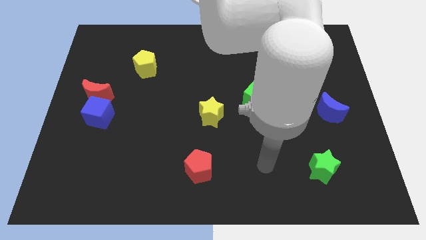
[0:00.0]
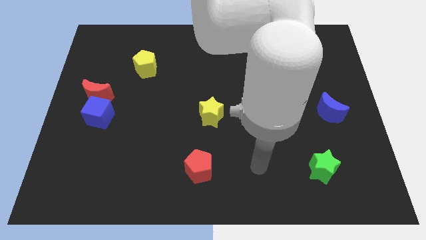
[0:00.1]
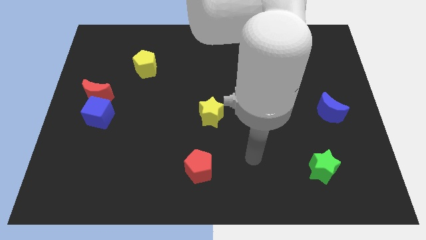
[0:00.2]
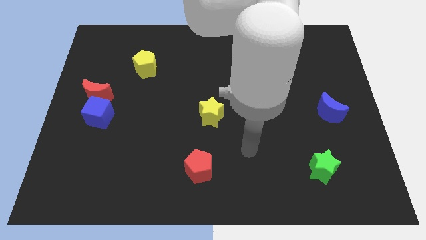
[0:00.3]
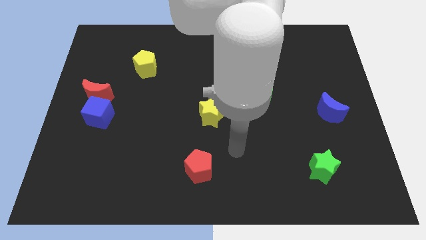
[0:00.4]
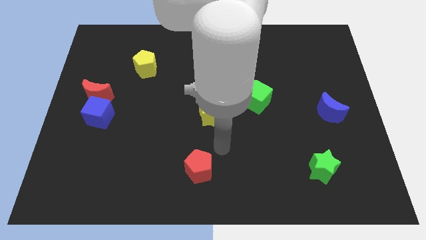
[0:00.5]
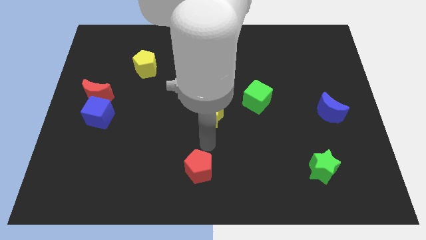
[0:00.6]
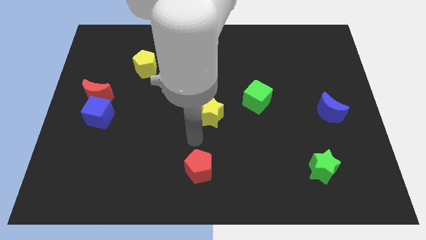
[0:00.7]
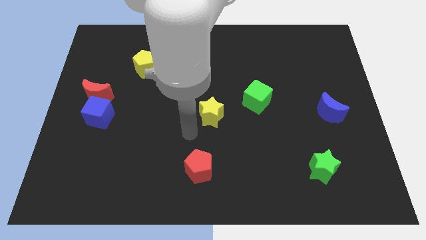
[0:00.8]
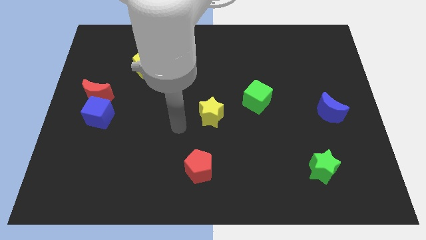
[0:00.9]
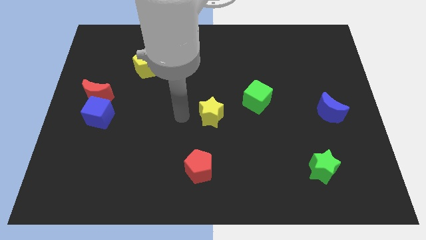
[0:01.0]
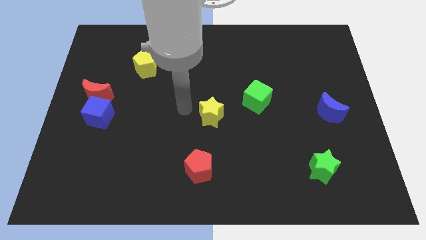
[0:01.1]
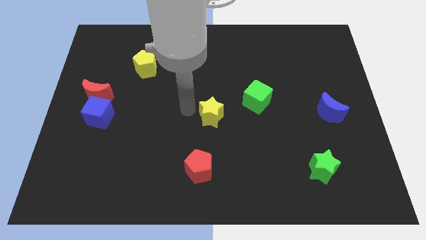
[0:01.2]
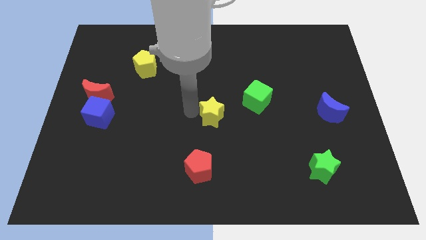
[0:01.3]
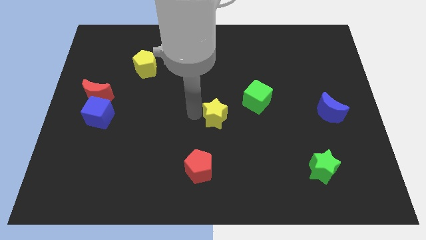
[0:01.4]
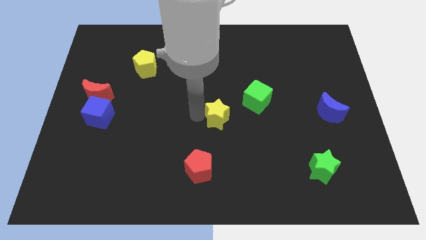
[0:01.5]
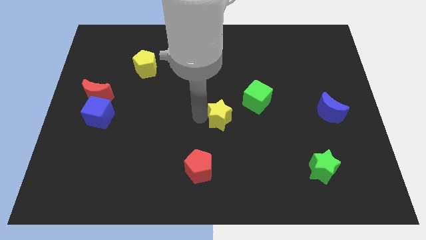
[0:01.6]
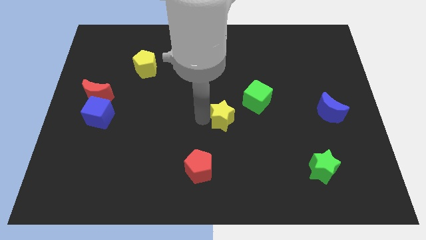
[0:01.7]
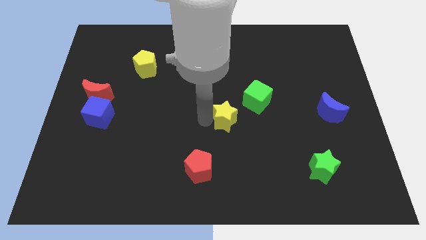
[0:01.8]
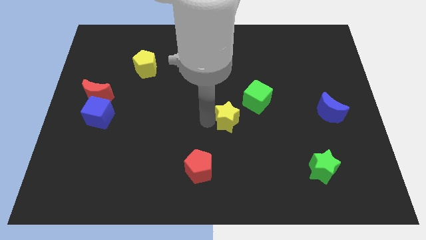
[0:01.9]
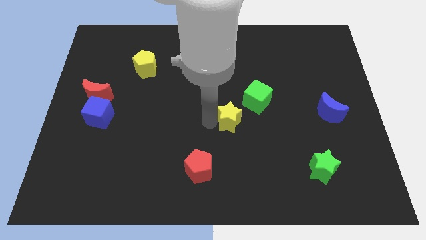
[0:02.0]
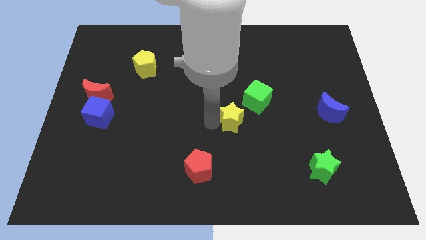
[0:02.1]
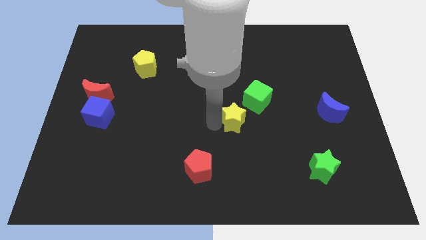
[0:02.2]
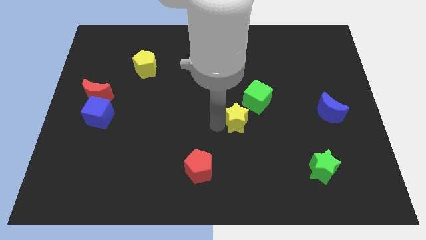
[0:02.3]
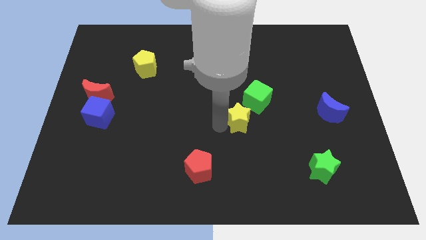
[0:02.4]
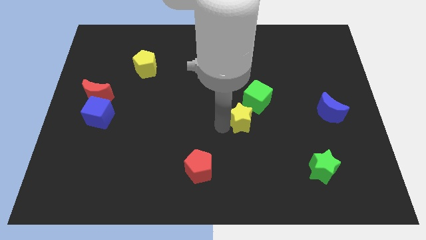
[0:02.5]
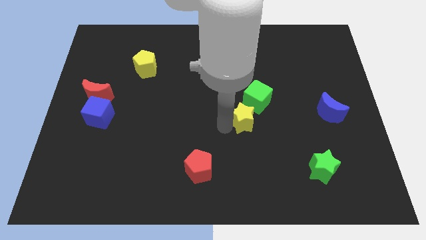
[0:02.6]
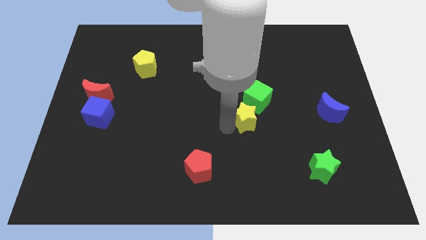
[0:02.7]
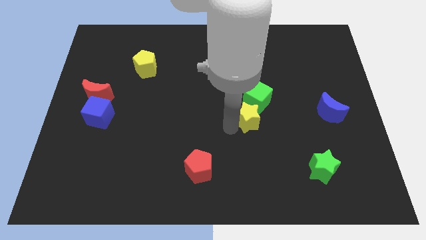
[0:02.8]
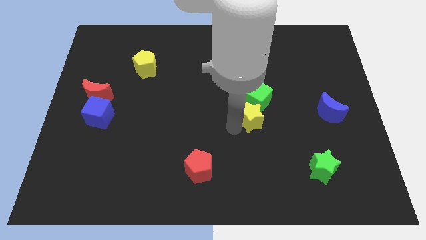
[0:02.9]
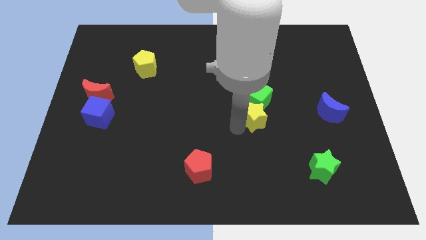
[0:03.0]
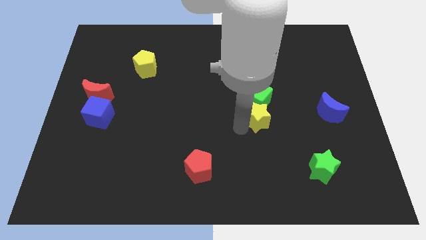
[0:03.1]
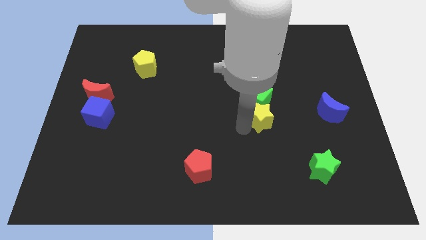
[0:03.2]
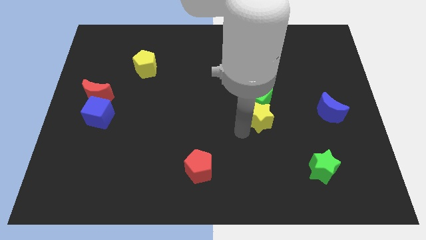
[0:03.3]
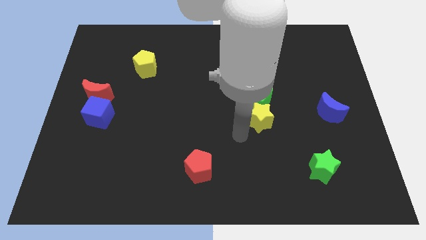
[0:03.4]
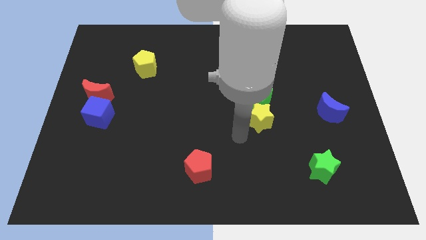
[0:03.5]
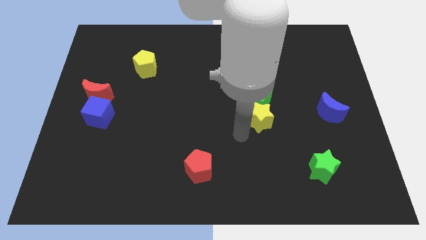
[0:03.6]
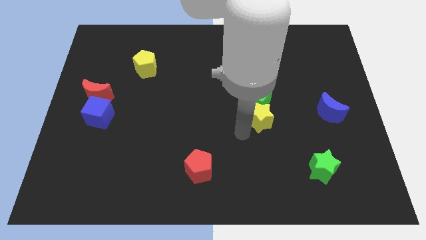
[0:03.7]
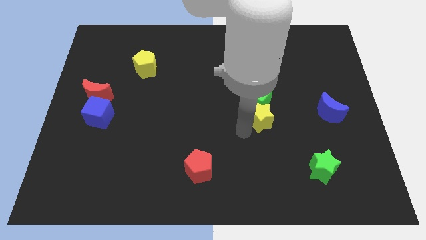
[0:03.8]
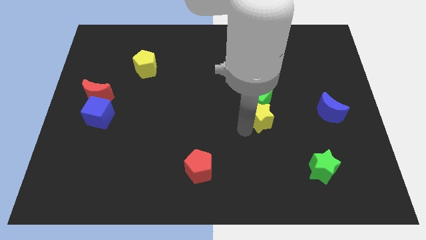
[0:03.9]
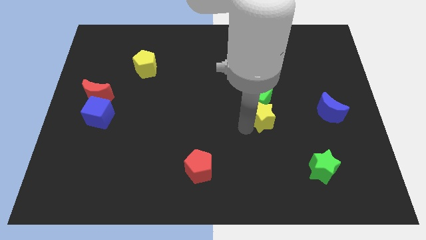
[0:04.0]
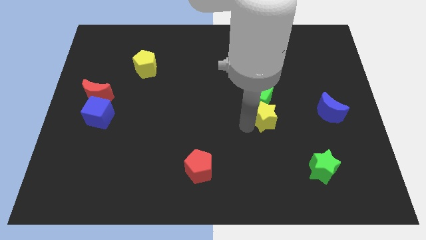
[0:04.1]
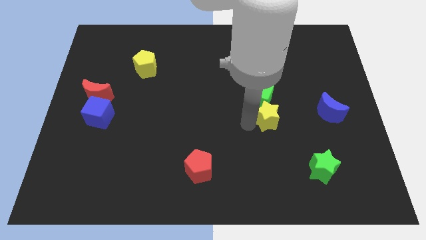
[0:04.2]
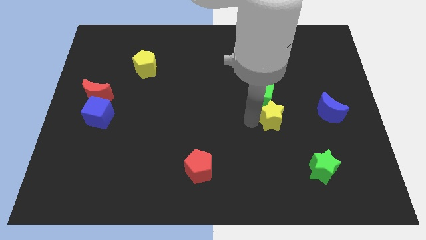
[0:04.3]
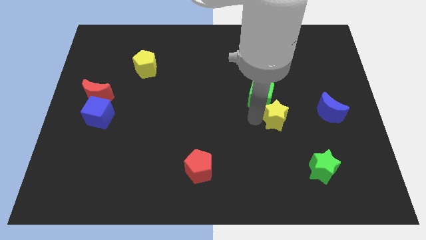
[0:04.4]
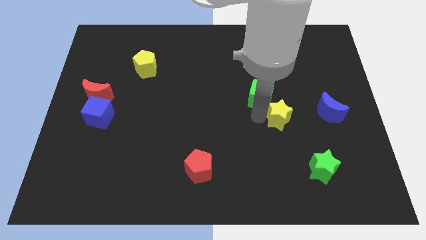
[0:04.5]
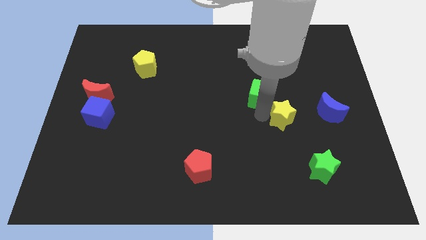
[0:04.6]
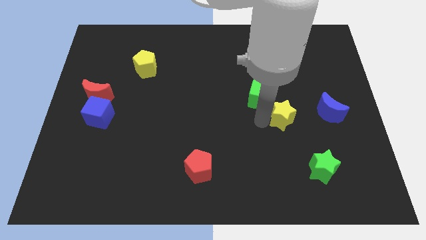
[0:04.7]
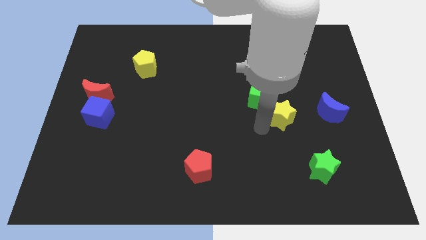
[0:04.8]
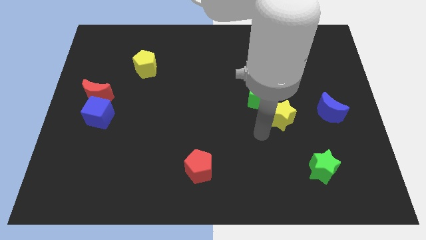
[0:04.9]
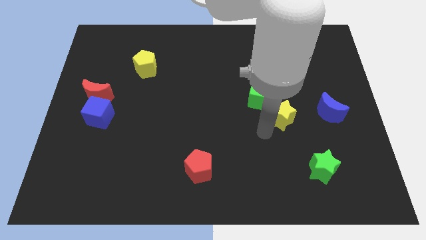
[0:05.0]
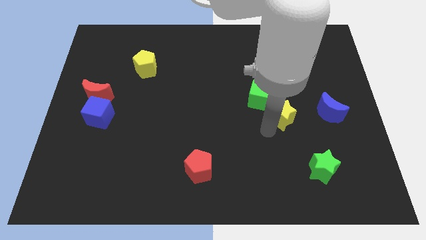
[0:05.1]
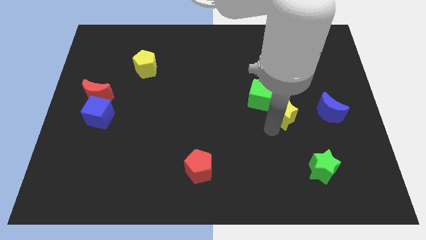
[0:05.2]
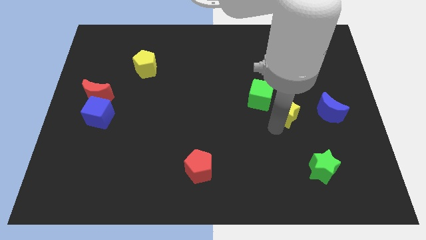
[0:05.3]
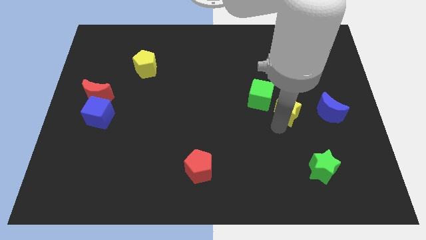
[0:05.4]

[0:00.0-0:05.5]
slide the yellow star to the right side of the green cube

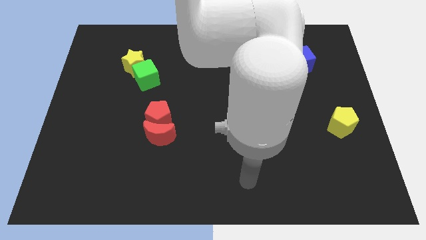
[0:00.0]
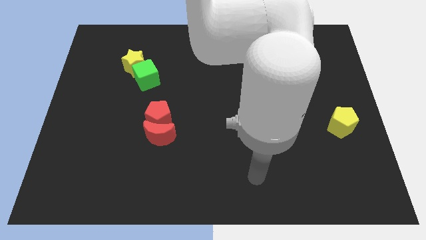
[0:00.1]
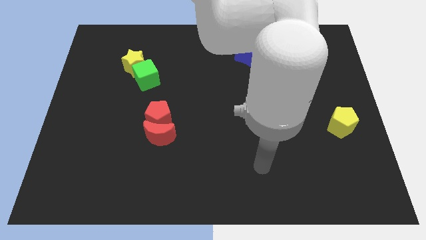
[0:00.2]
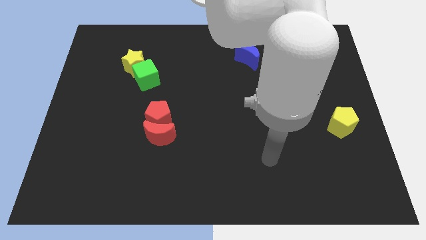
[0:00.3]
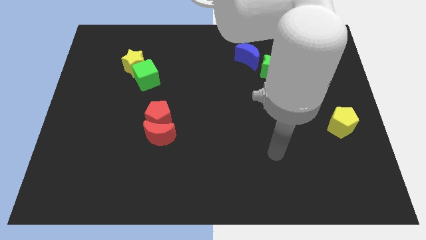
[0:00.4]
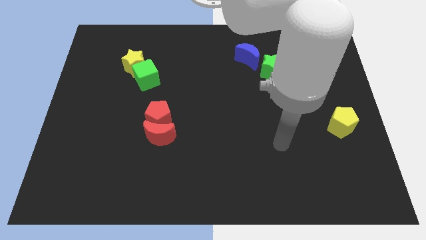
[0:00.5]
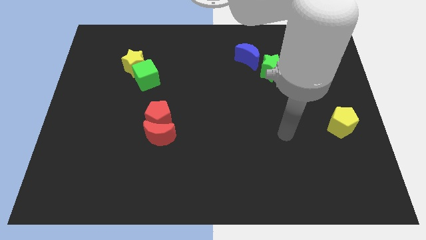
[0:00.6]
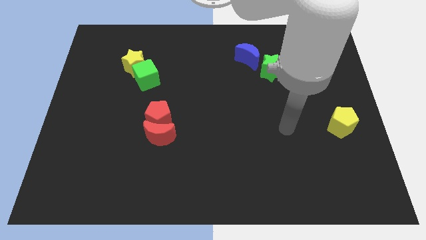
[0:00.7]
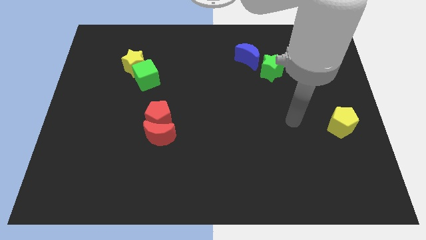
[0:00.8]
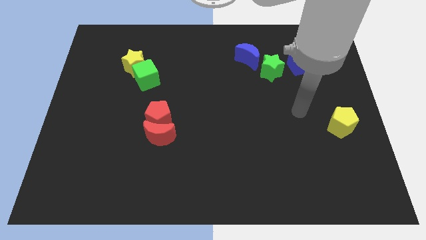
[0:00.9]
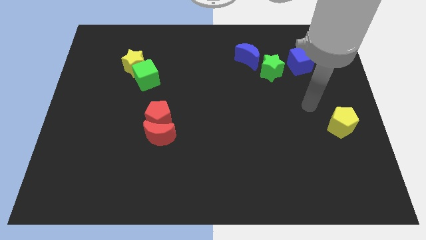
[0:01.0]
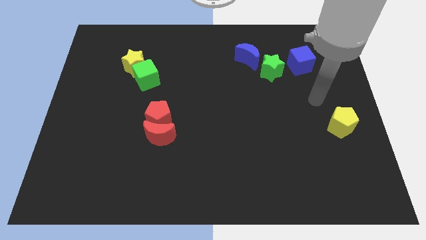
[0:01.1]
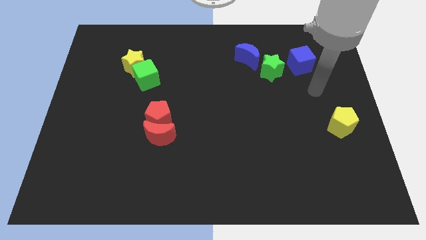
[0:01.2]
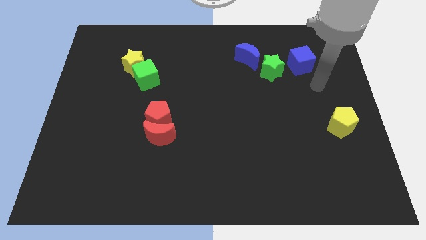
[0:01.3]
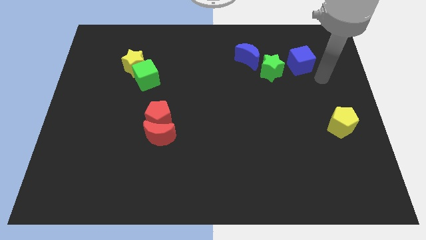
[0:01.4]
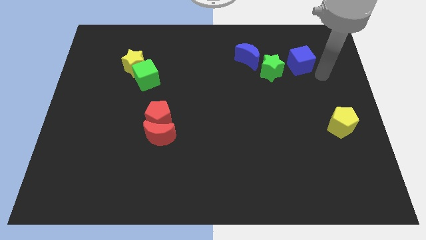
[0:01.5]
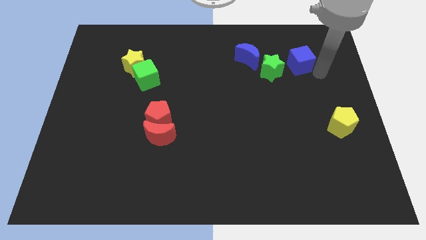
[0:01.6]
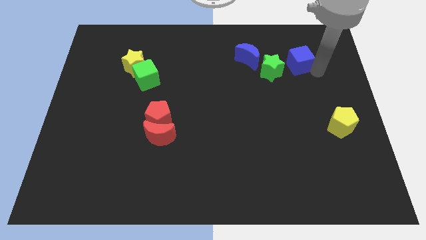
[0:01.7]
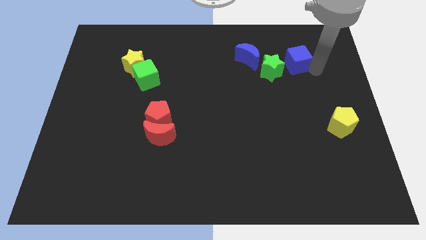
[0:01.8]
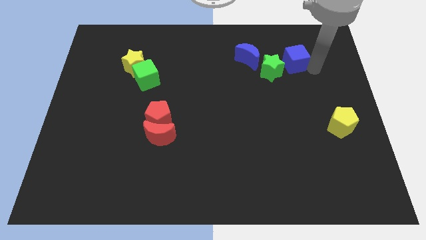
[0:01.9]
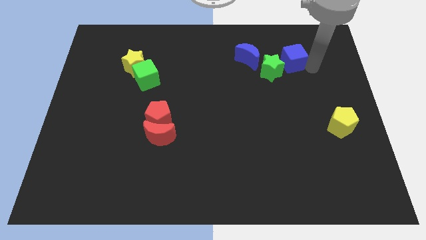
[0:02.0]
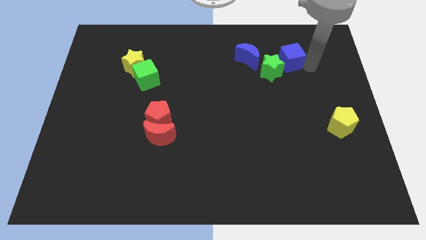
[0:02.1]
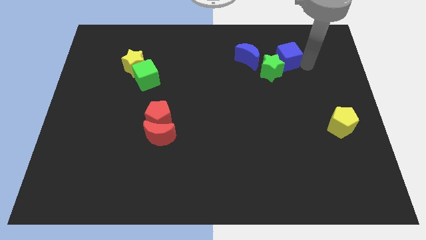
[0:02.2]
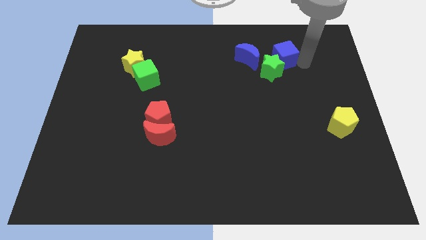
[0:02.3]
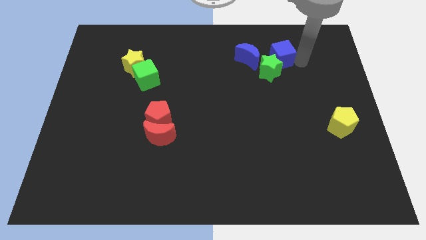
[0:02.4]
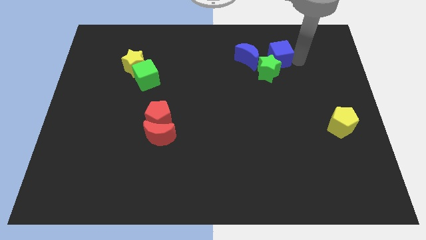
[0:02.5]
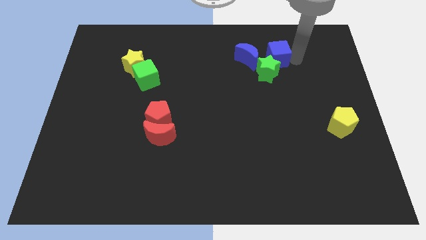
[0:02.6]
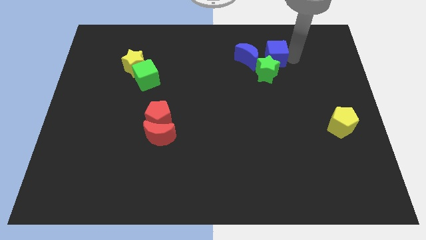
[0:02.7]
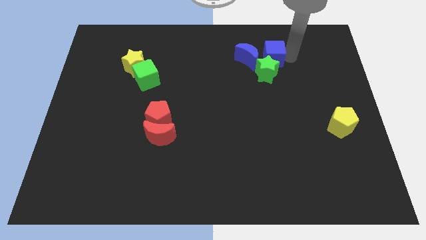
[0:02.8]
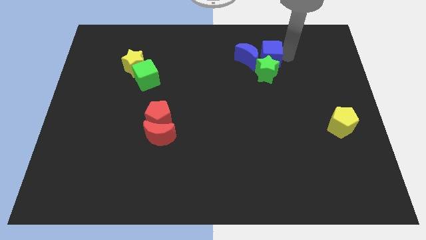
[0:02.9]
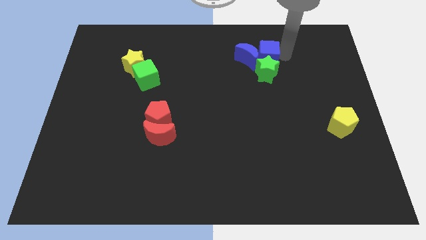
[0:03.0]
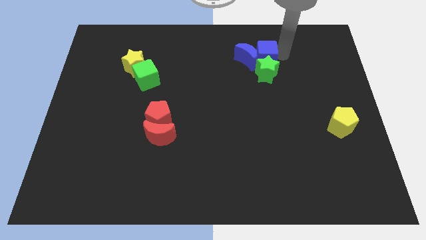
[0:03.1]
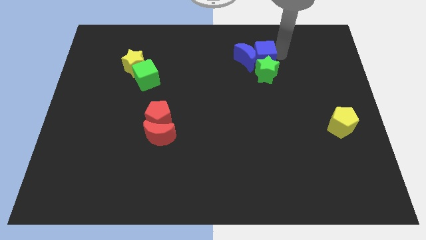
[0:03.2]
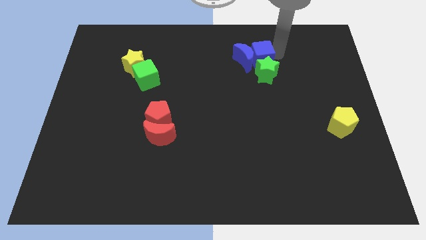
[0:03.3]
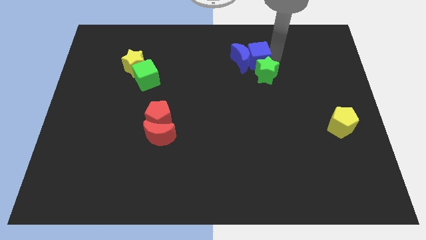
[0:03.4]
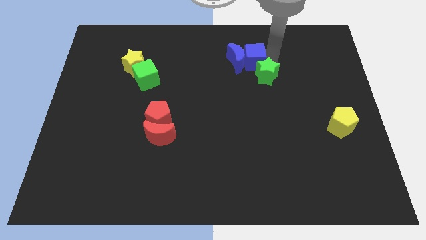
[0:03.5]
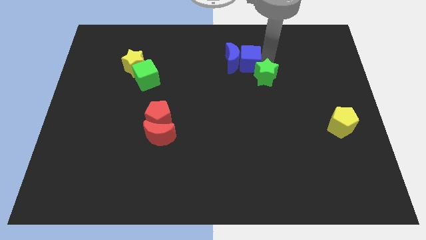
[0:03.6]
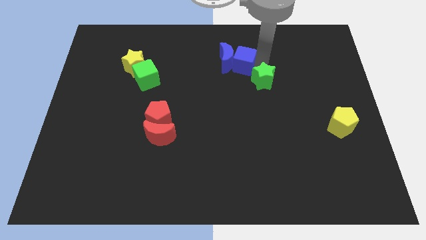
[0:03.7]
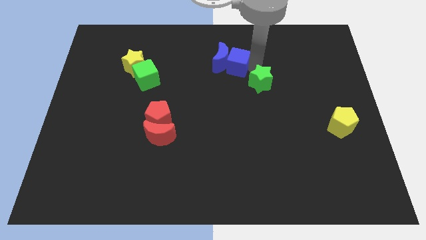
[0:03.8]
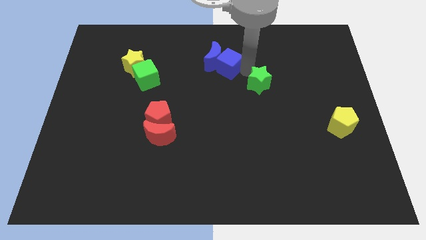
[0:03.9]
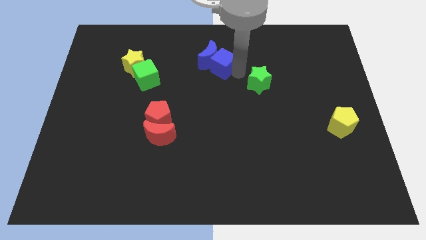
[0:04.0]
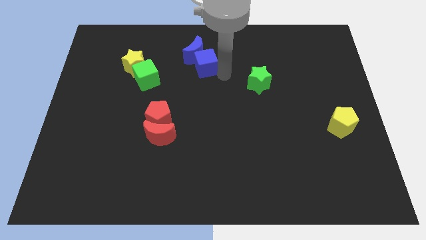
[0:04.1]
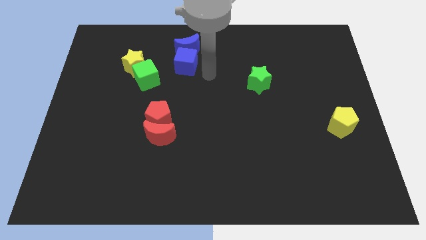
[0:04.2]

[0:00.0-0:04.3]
put the blue cube diagonally up and to the right of the green cube
